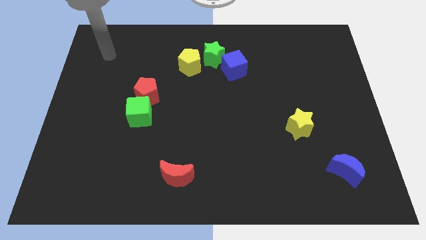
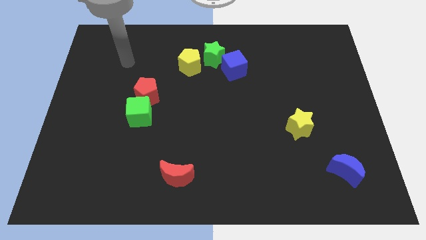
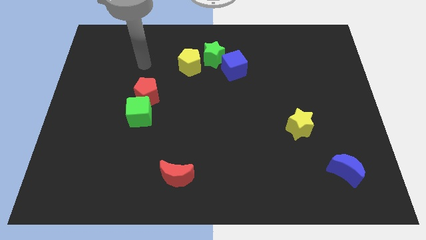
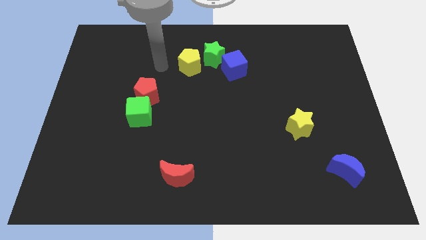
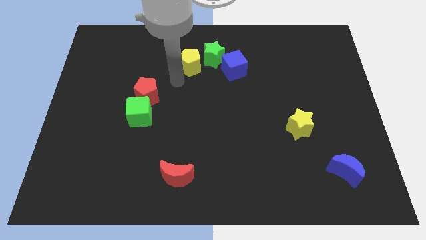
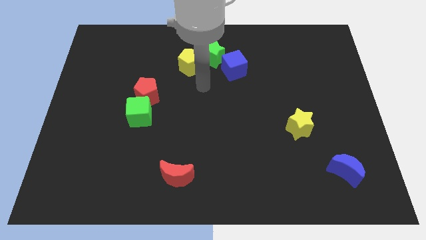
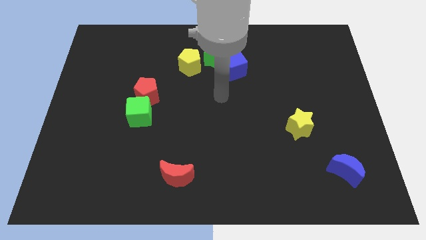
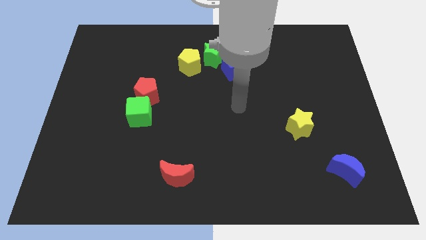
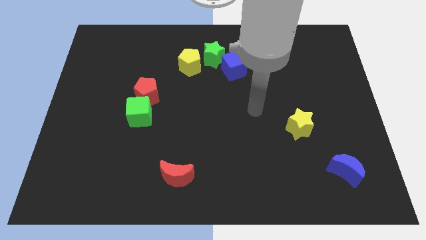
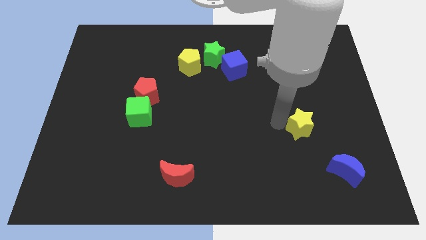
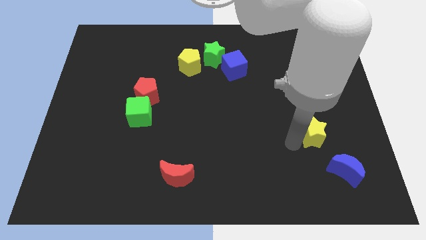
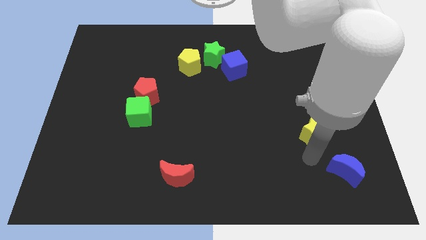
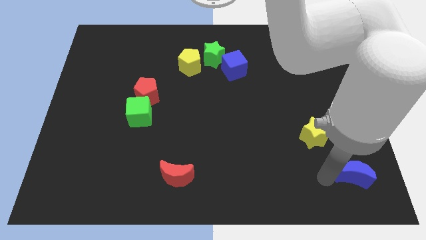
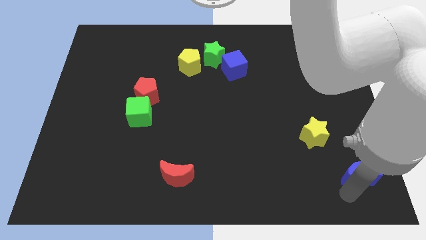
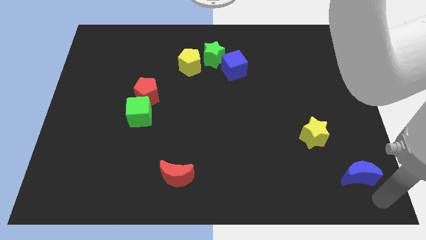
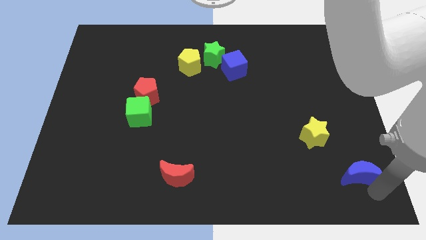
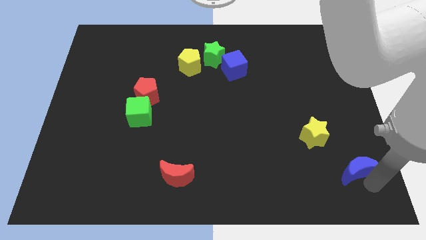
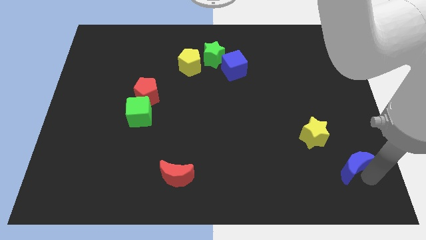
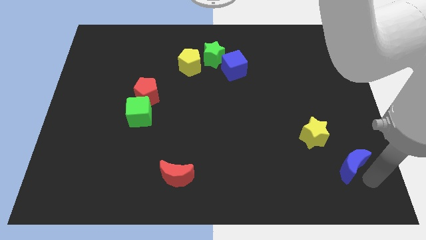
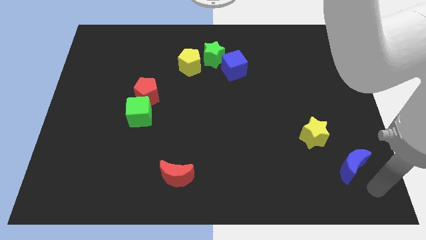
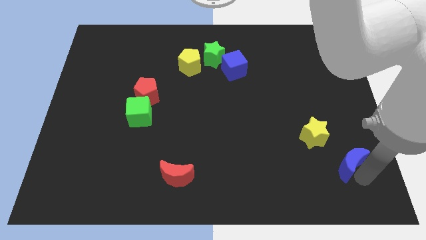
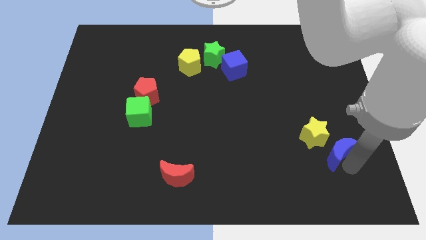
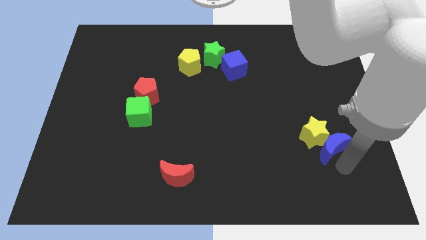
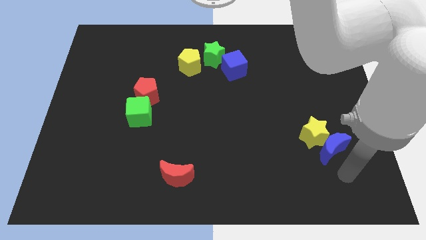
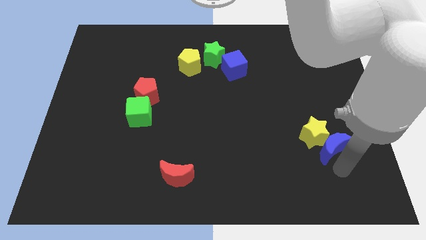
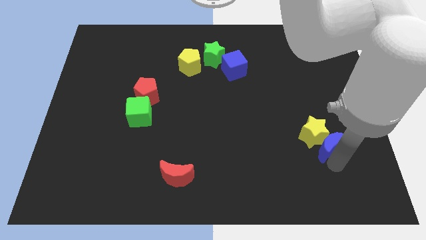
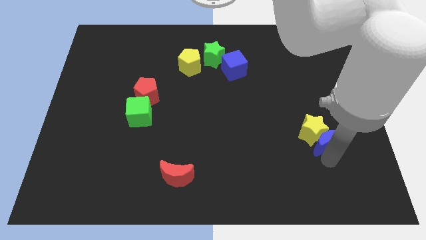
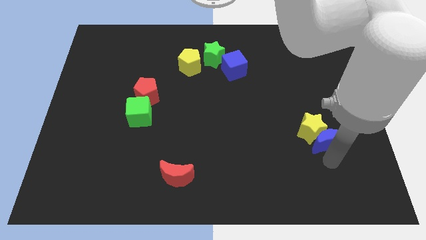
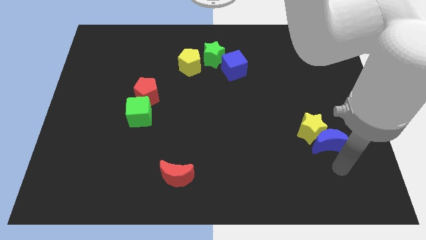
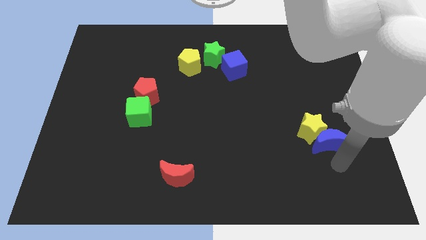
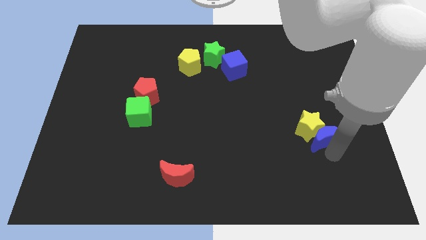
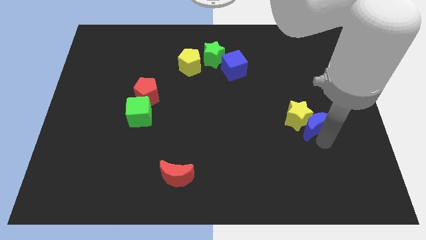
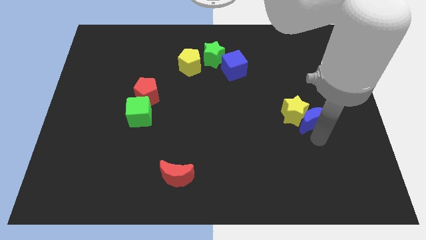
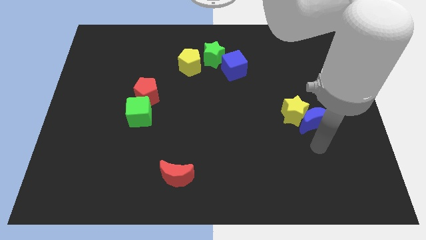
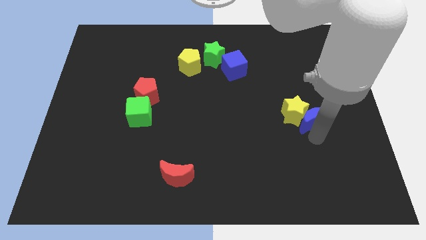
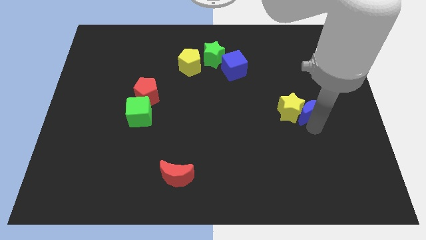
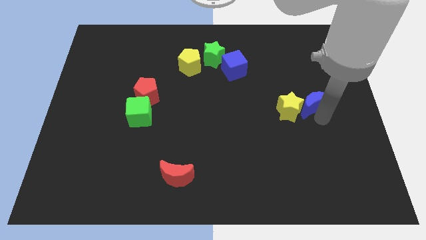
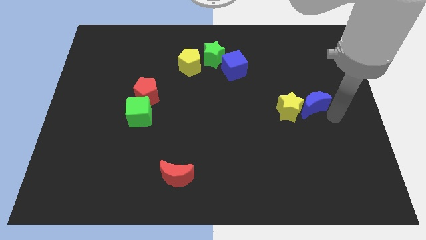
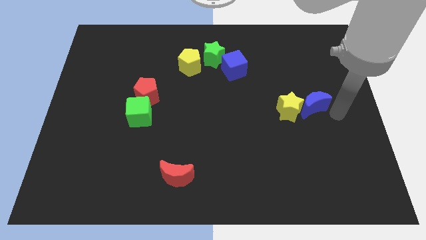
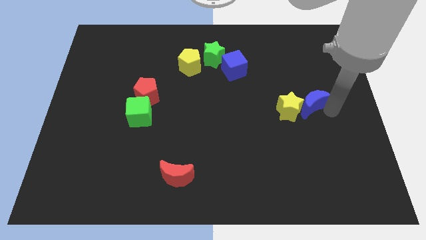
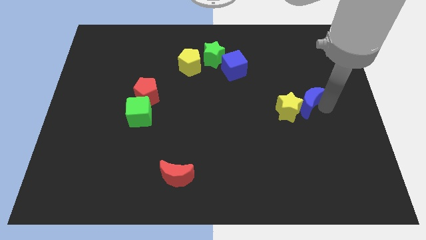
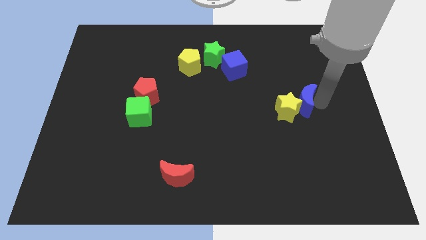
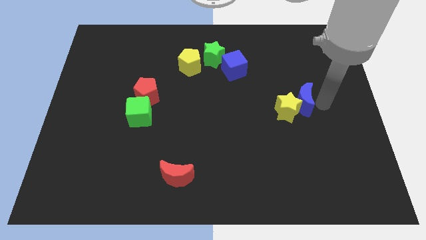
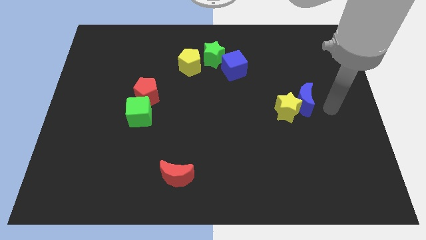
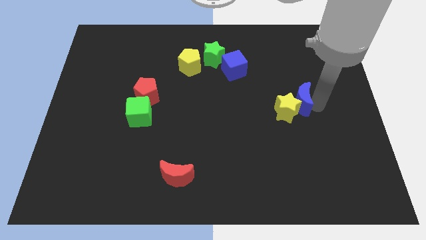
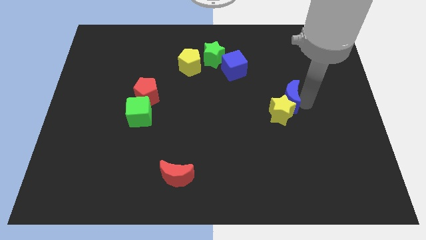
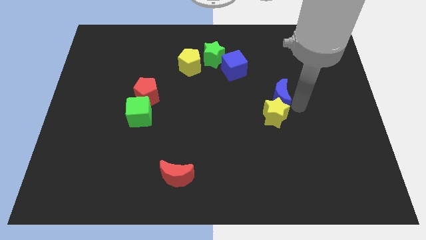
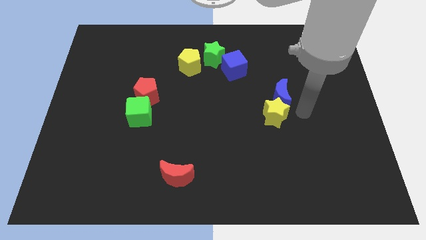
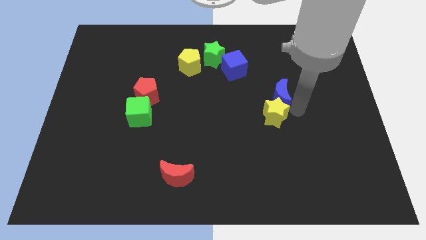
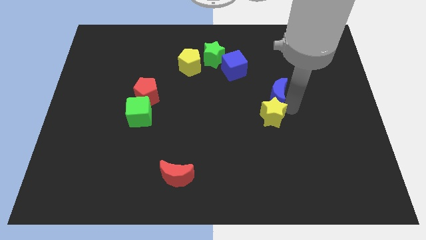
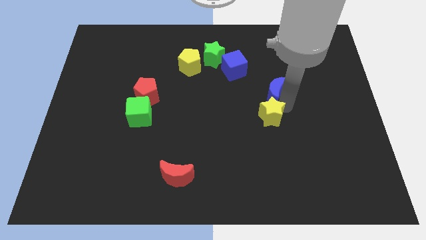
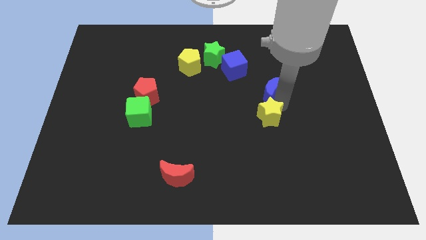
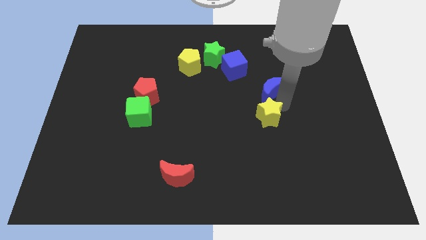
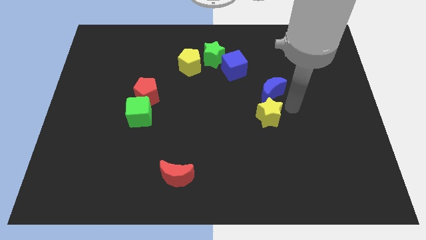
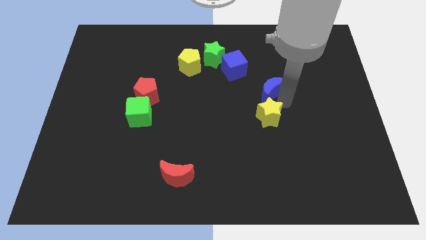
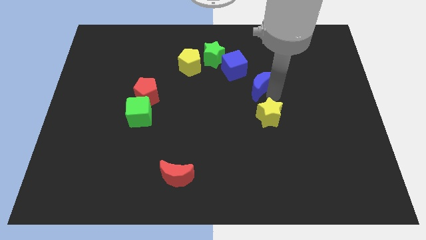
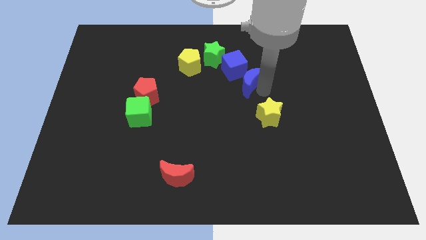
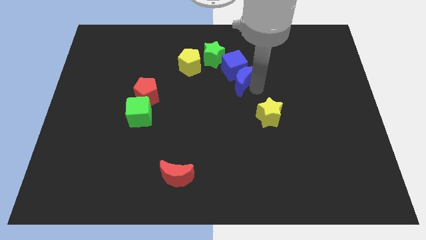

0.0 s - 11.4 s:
push the blue moon diagonally down and to the right of the green star

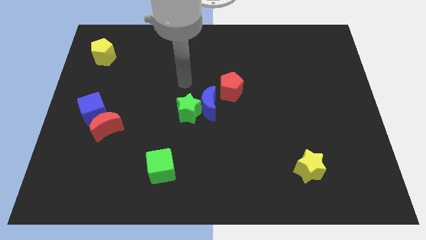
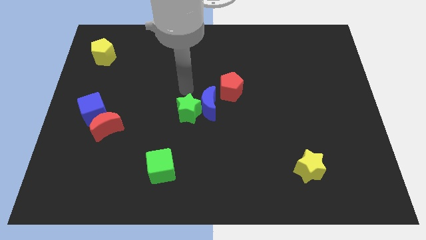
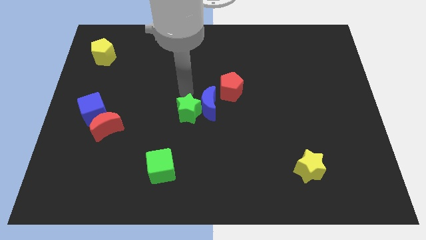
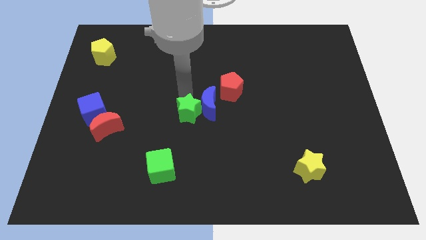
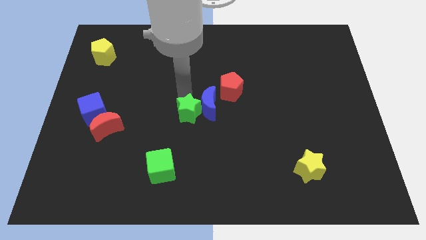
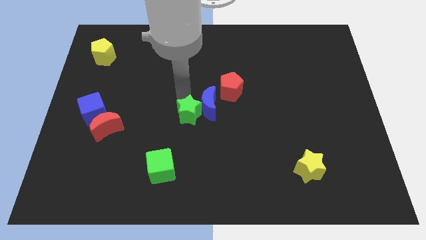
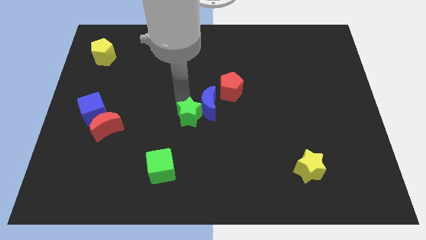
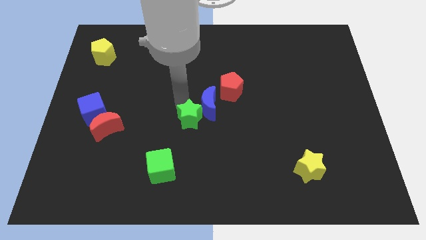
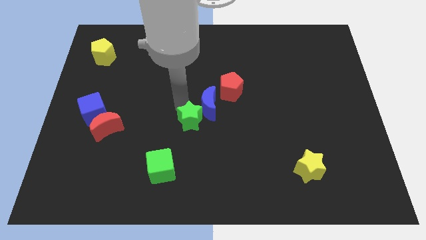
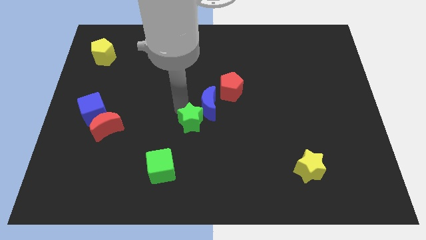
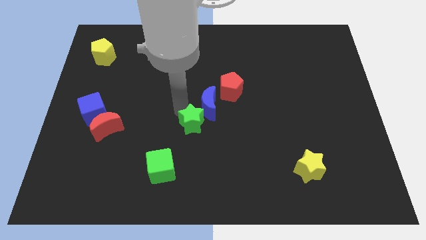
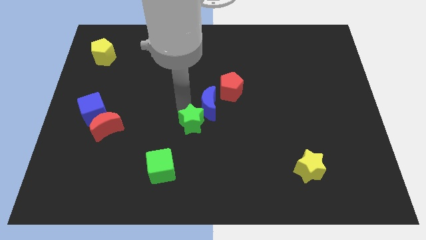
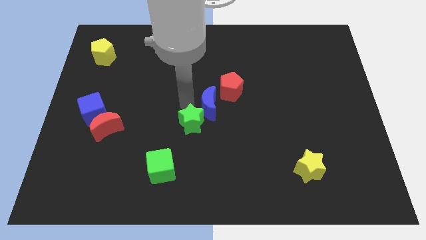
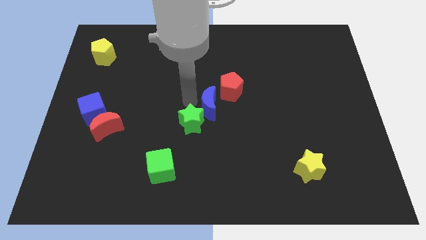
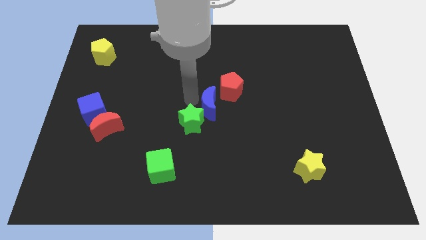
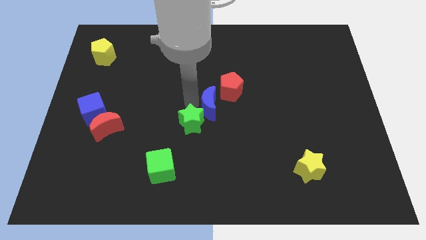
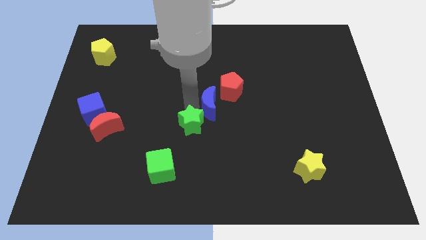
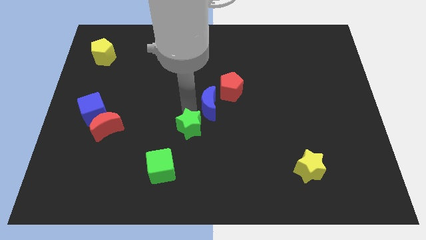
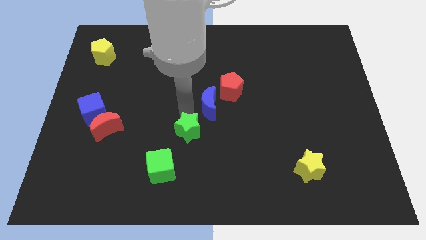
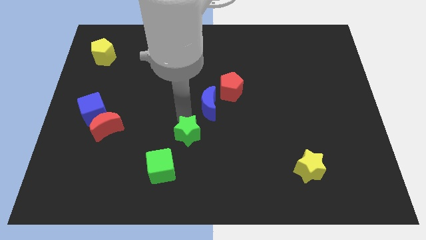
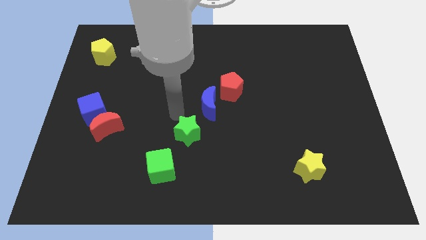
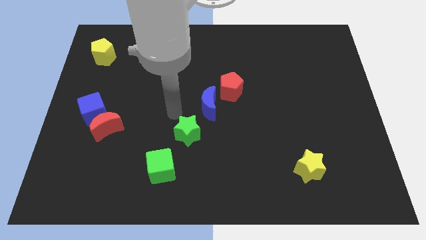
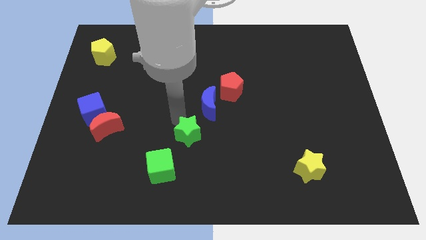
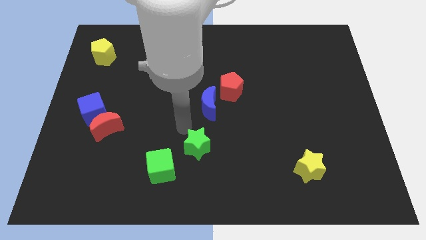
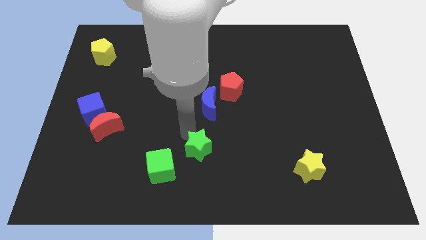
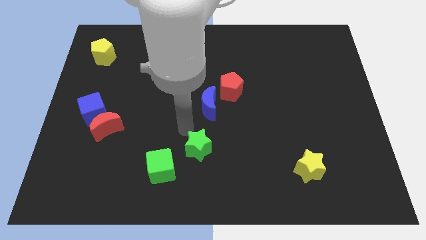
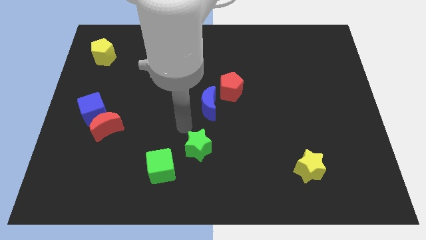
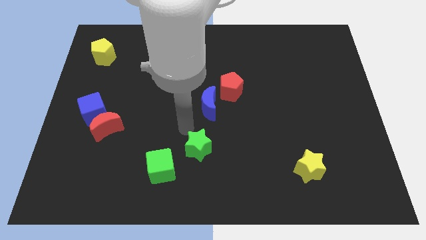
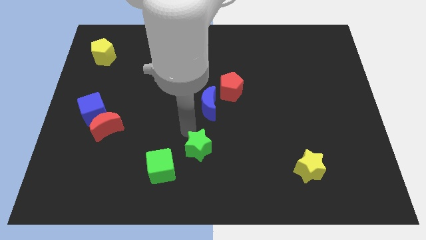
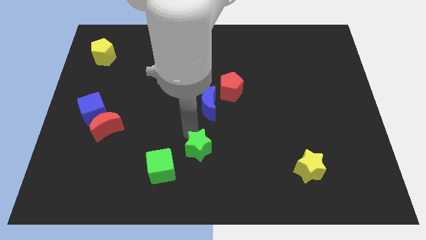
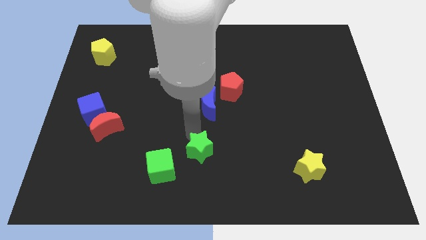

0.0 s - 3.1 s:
move the green star just right of the green cube
